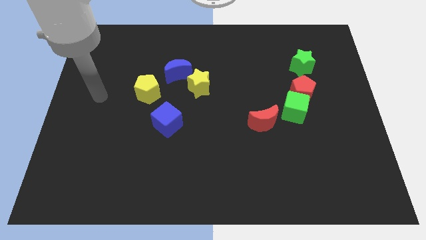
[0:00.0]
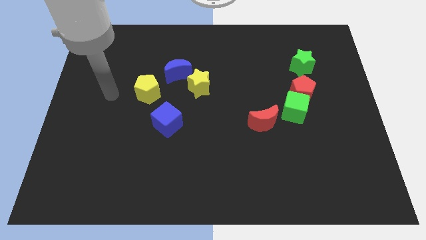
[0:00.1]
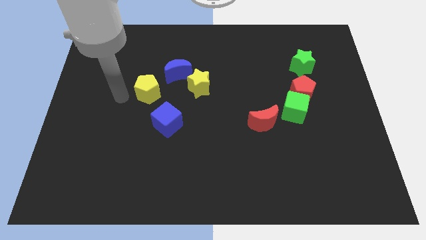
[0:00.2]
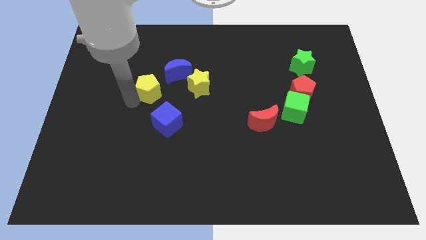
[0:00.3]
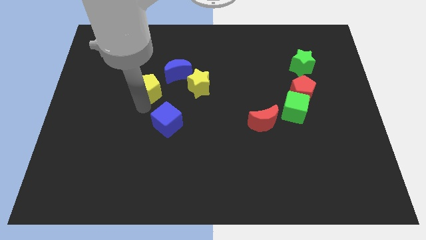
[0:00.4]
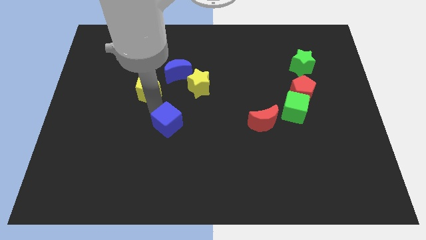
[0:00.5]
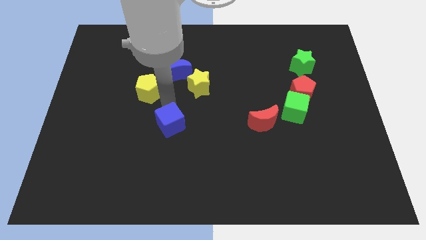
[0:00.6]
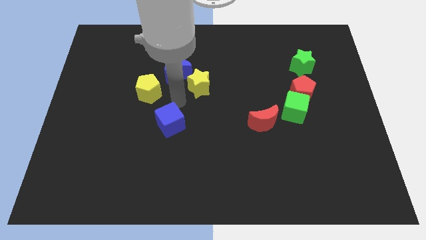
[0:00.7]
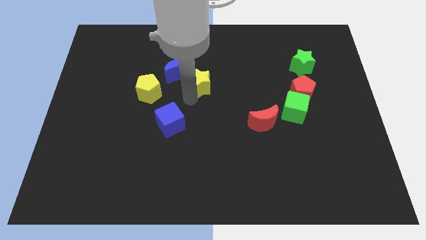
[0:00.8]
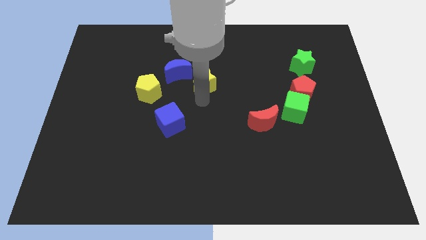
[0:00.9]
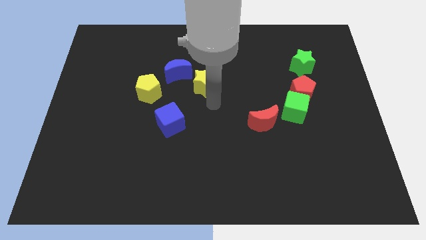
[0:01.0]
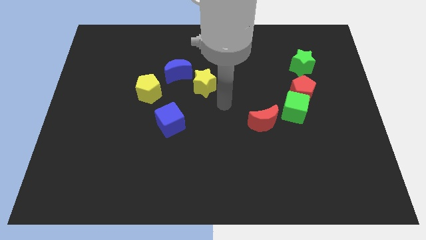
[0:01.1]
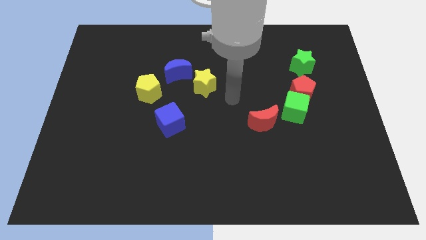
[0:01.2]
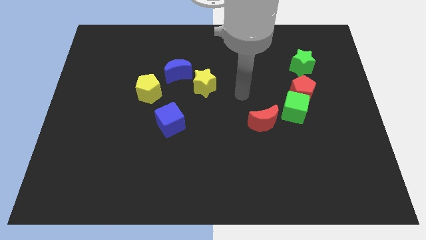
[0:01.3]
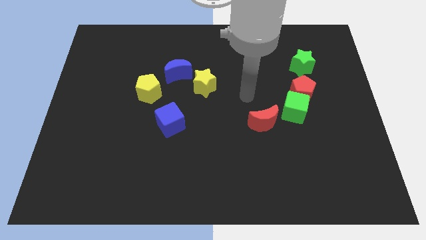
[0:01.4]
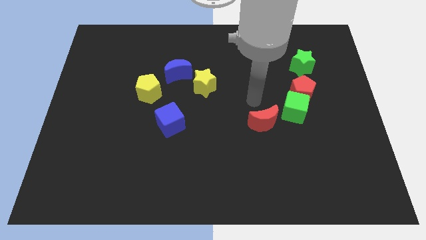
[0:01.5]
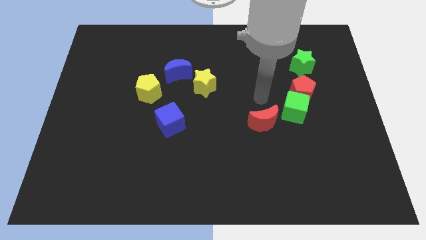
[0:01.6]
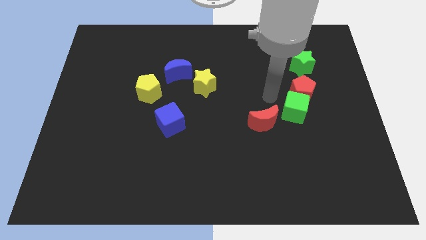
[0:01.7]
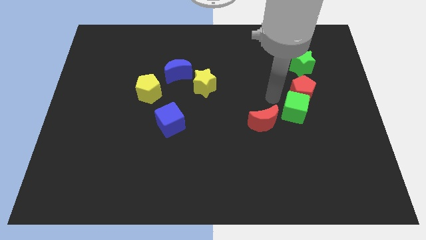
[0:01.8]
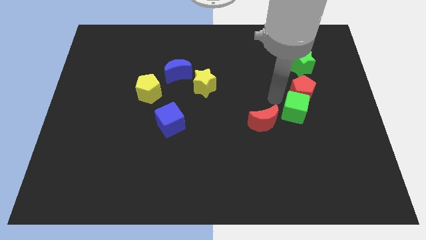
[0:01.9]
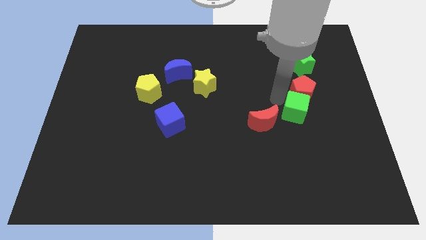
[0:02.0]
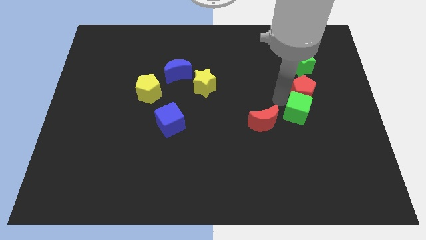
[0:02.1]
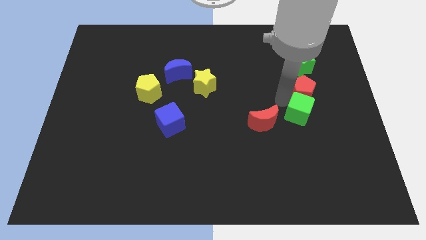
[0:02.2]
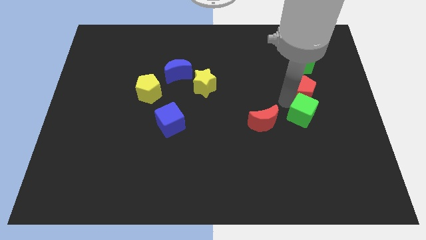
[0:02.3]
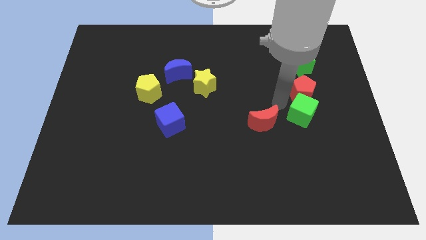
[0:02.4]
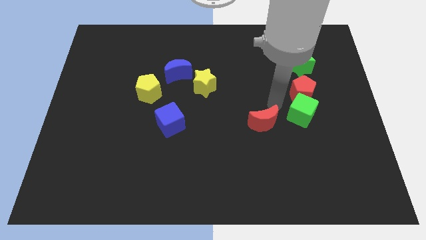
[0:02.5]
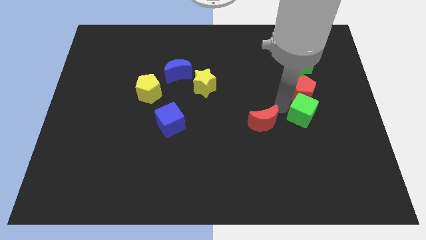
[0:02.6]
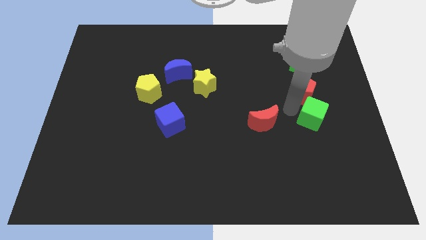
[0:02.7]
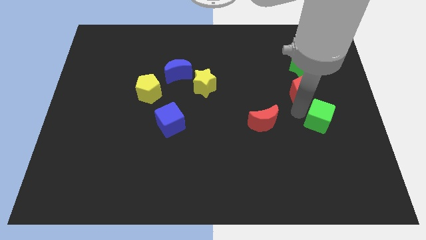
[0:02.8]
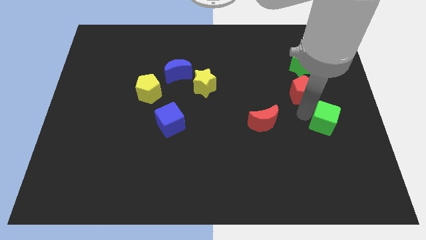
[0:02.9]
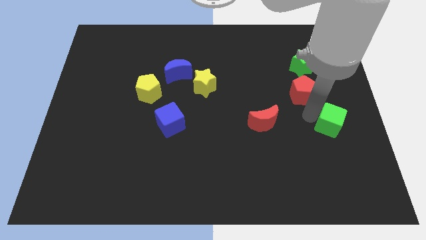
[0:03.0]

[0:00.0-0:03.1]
move the green cube away from the red pentagon and red moon

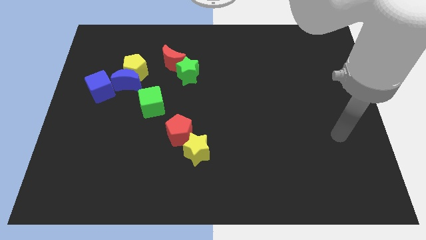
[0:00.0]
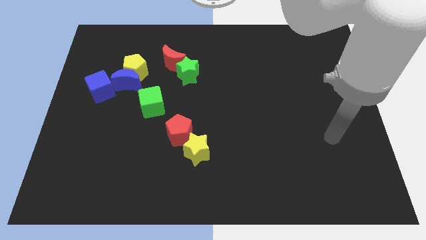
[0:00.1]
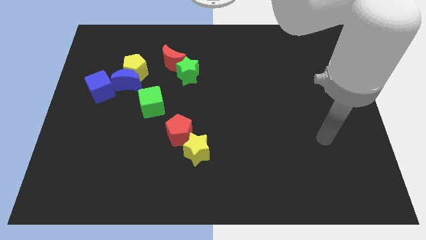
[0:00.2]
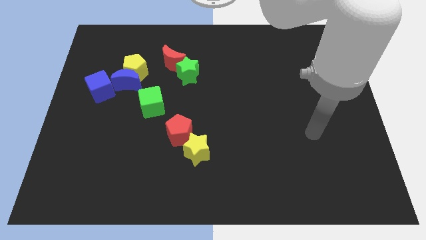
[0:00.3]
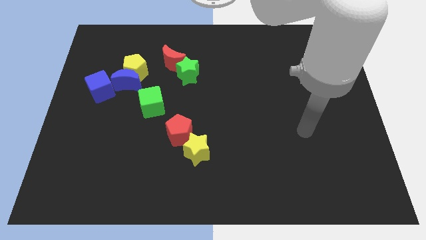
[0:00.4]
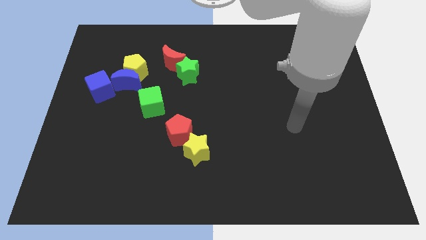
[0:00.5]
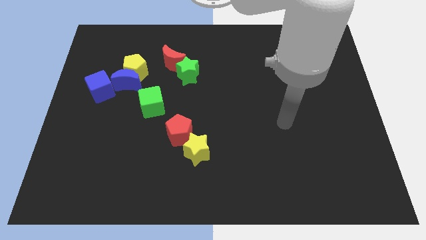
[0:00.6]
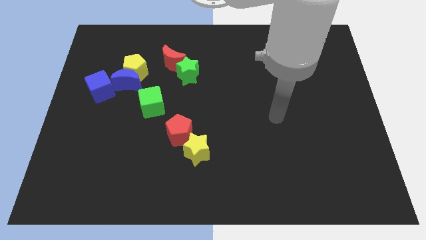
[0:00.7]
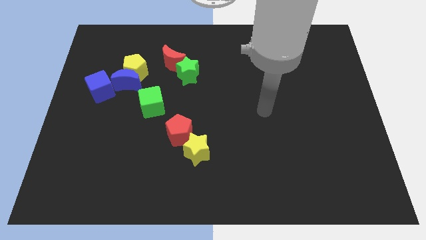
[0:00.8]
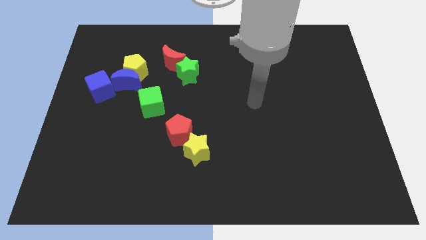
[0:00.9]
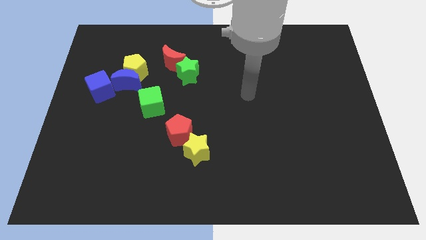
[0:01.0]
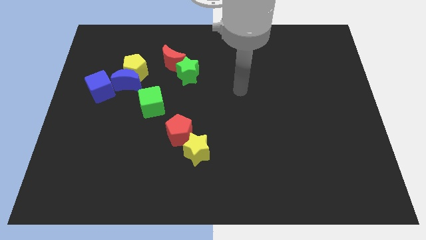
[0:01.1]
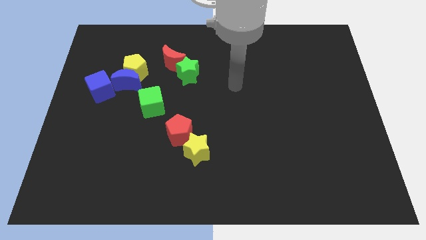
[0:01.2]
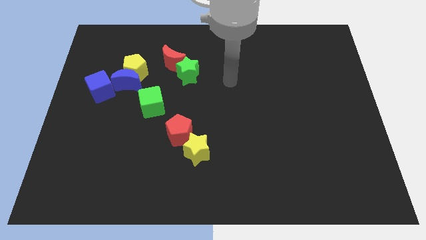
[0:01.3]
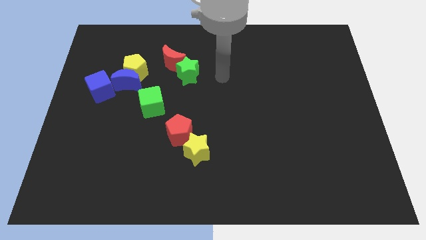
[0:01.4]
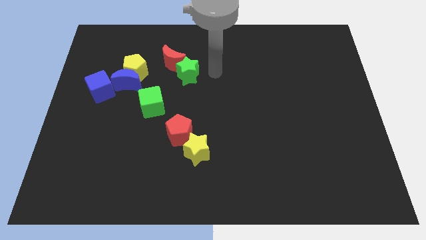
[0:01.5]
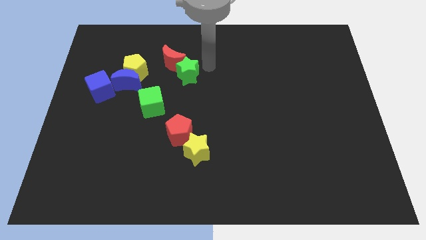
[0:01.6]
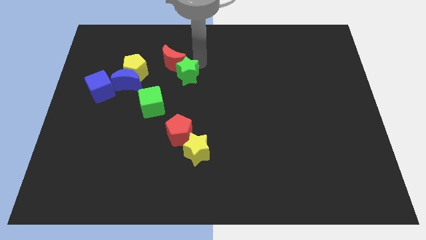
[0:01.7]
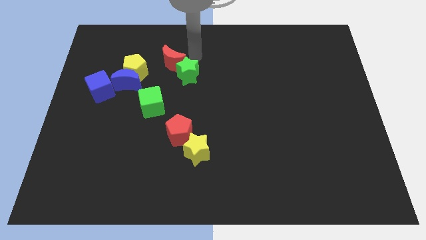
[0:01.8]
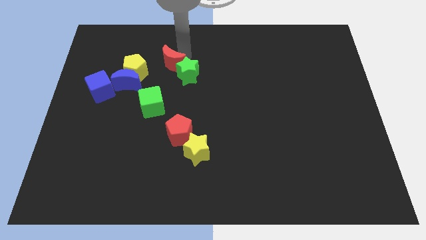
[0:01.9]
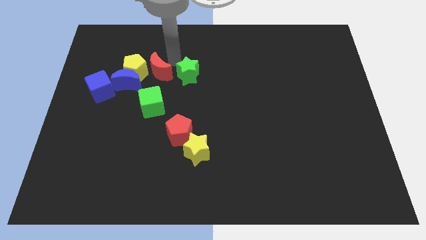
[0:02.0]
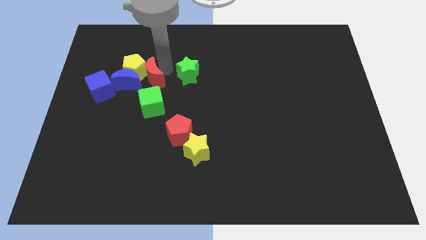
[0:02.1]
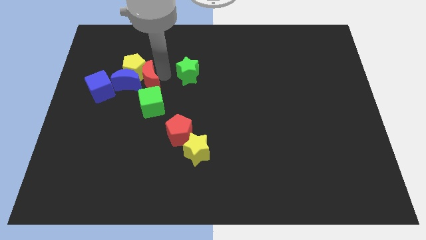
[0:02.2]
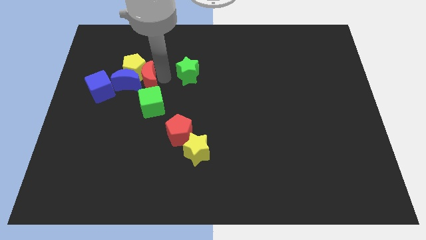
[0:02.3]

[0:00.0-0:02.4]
separate the green star from the red moon

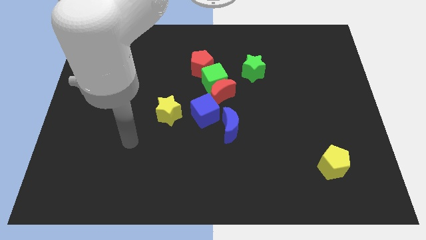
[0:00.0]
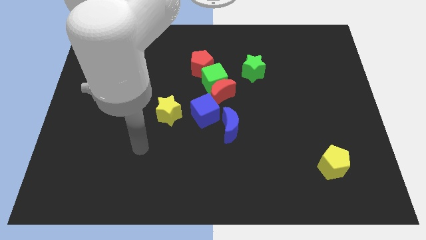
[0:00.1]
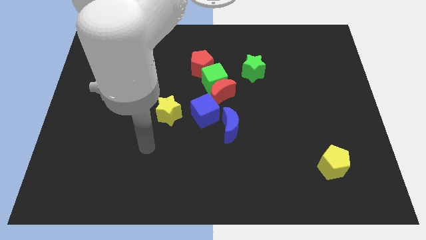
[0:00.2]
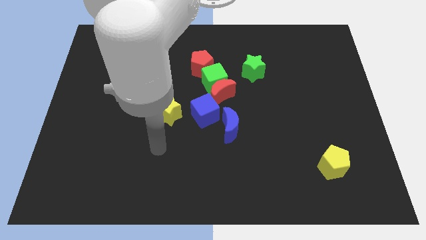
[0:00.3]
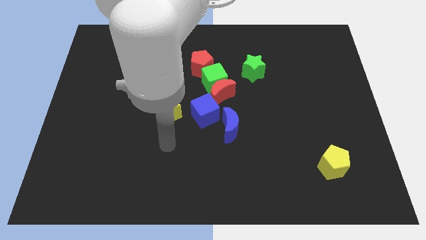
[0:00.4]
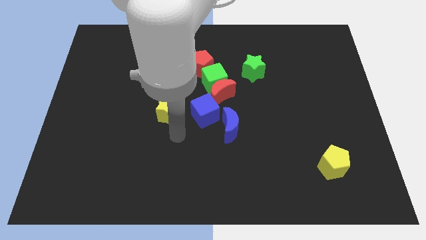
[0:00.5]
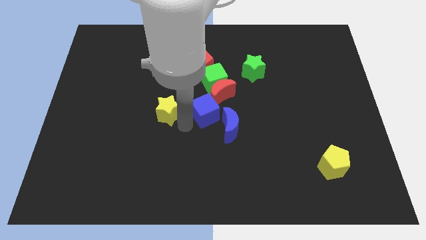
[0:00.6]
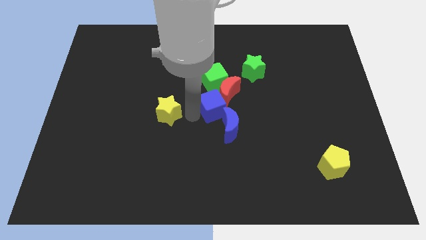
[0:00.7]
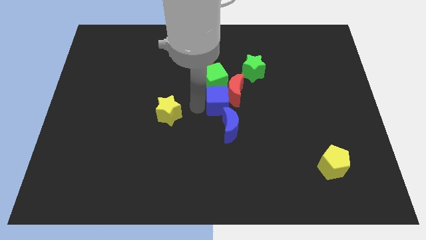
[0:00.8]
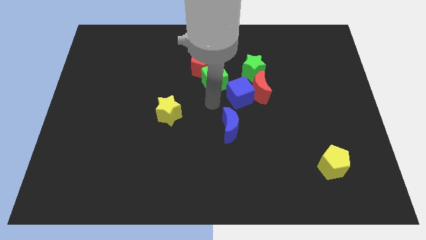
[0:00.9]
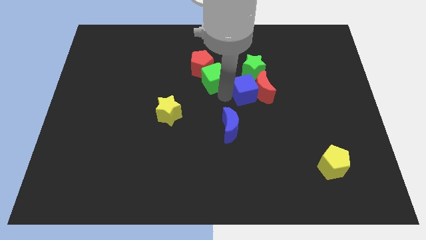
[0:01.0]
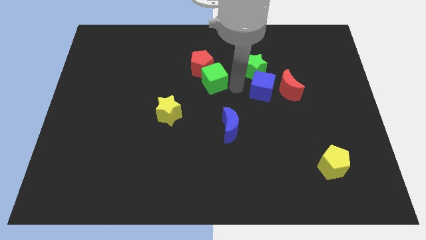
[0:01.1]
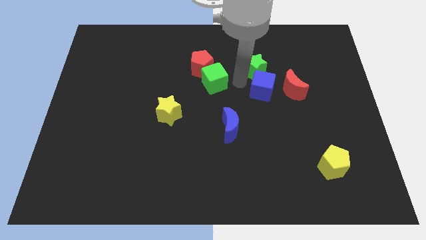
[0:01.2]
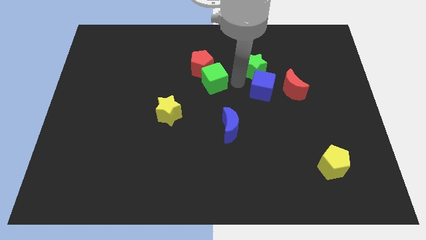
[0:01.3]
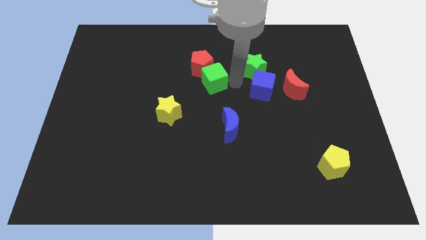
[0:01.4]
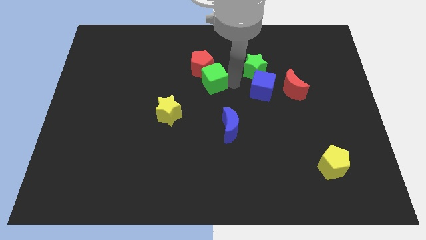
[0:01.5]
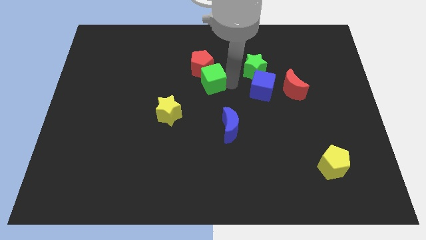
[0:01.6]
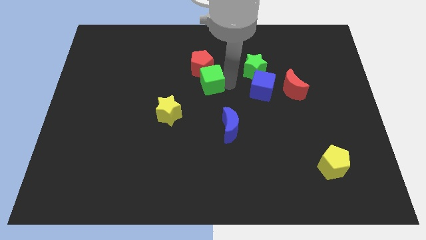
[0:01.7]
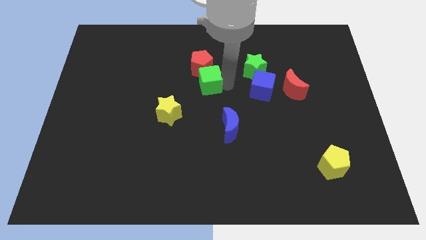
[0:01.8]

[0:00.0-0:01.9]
separate the green cube from the red moon, red pentagon, and blue cube

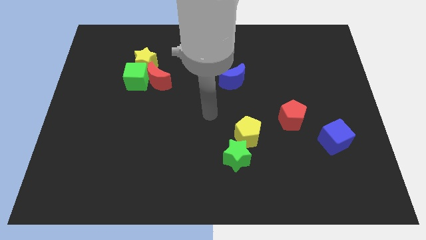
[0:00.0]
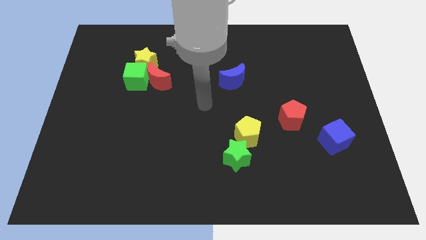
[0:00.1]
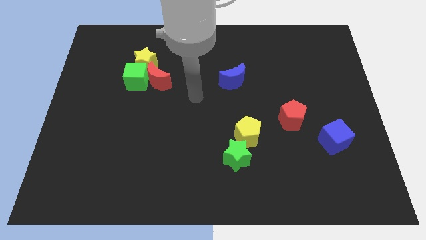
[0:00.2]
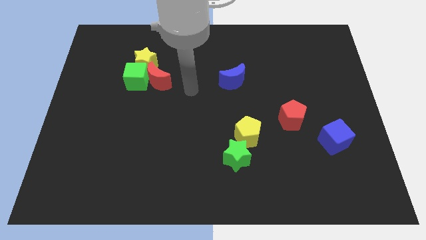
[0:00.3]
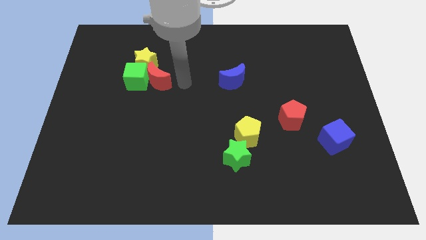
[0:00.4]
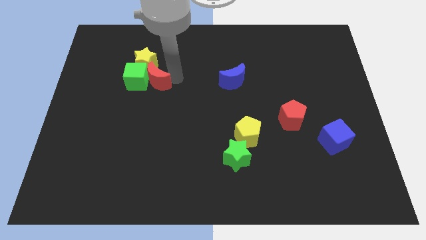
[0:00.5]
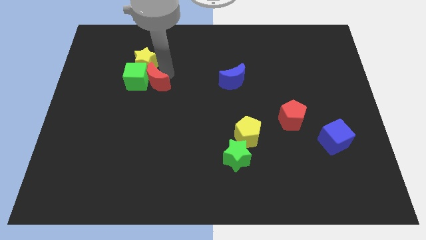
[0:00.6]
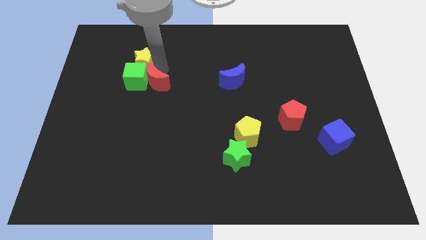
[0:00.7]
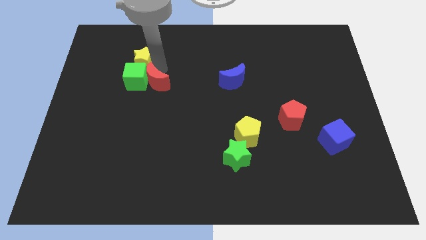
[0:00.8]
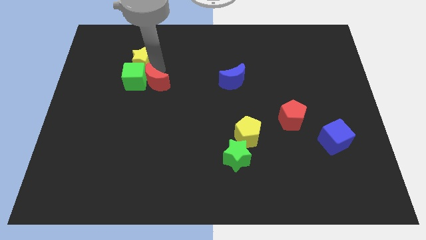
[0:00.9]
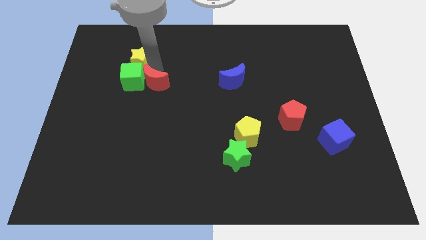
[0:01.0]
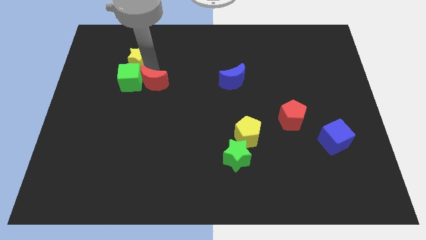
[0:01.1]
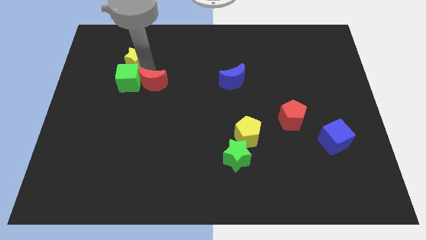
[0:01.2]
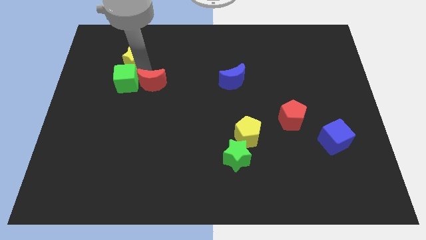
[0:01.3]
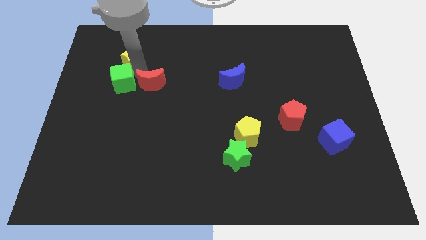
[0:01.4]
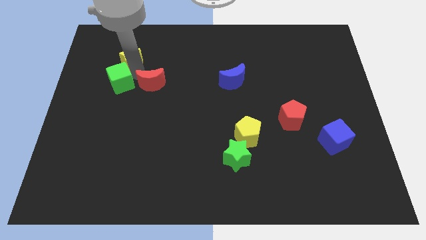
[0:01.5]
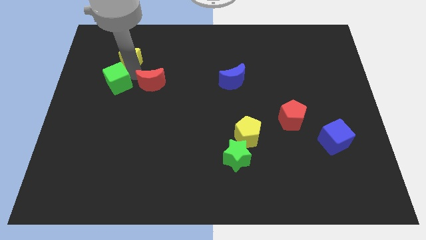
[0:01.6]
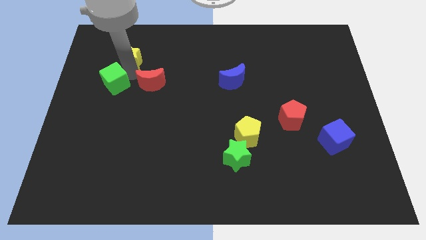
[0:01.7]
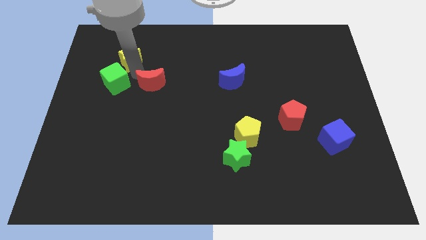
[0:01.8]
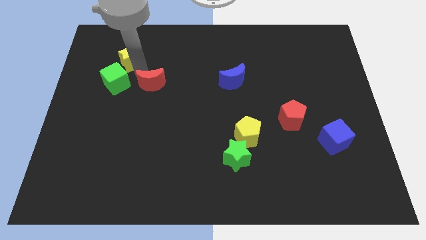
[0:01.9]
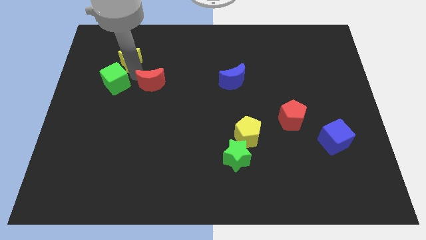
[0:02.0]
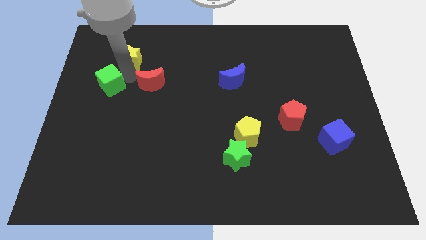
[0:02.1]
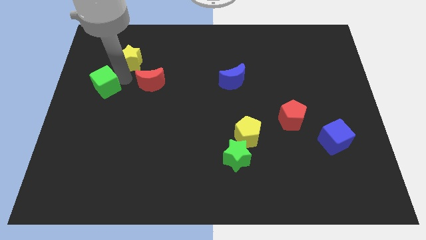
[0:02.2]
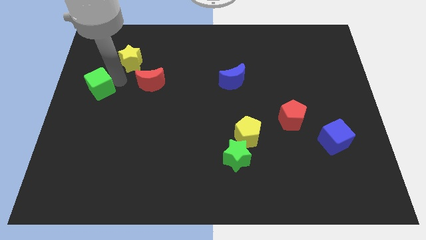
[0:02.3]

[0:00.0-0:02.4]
move the green cube away from the red moon and yellow star
